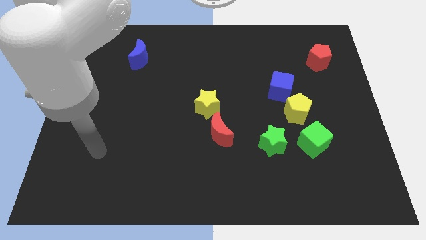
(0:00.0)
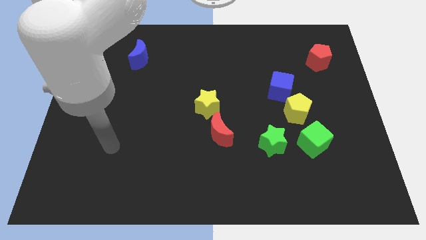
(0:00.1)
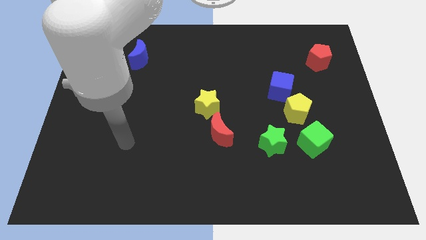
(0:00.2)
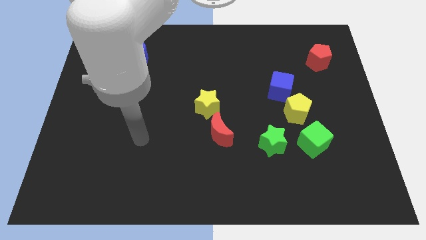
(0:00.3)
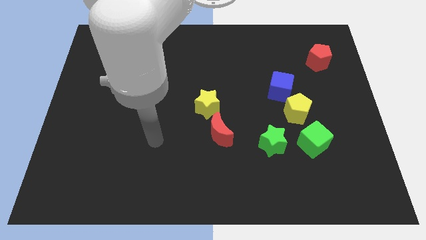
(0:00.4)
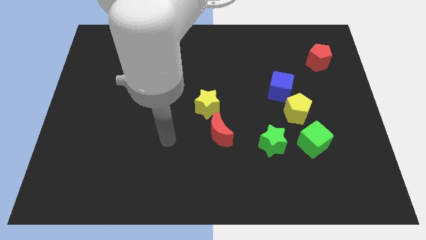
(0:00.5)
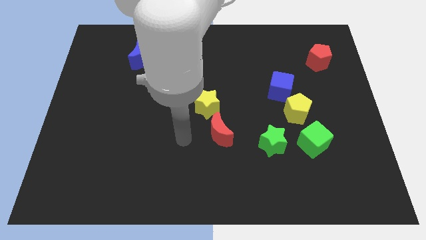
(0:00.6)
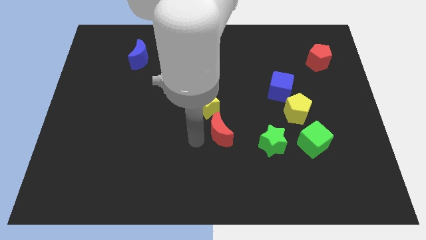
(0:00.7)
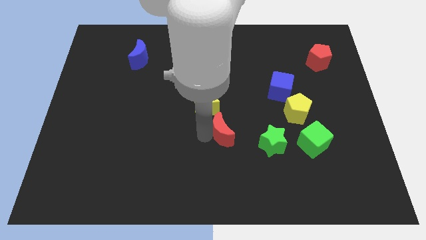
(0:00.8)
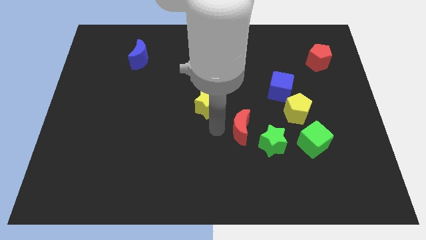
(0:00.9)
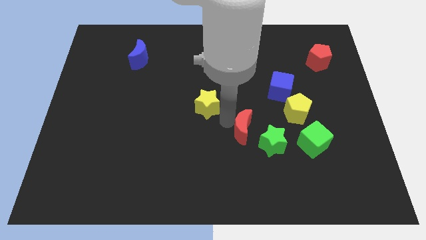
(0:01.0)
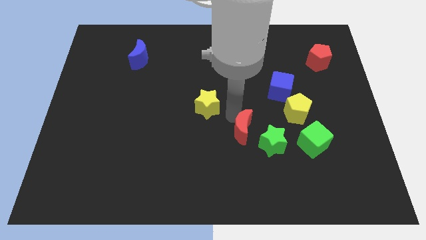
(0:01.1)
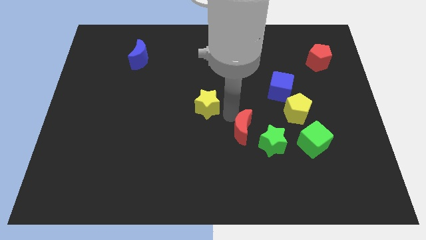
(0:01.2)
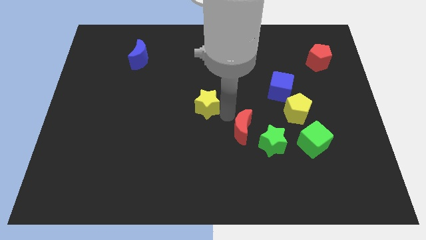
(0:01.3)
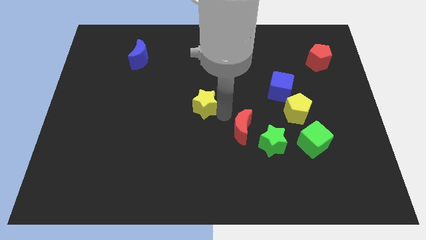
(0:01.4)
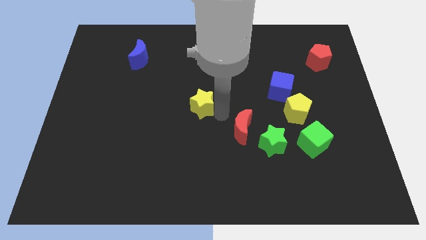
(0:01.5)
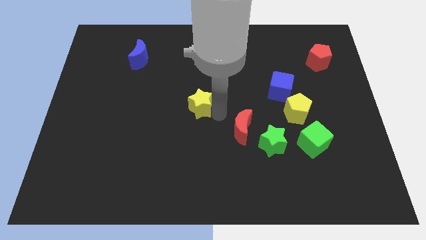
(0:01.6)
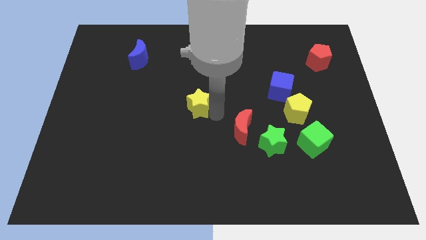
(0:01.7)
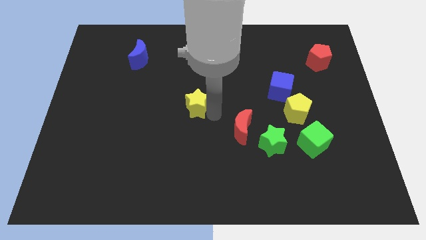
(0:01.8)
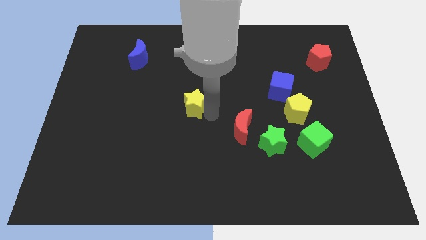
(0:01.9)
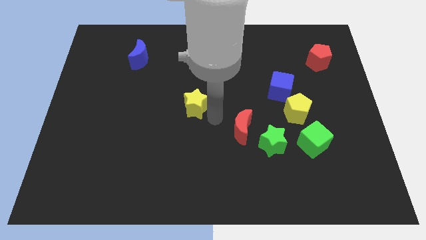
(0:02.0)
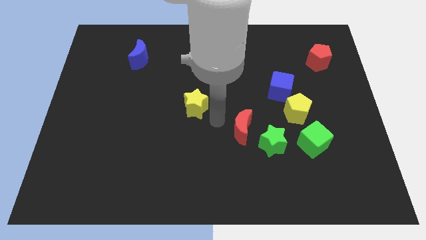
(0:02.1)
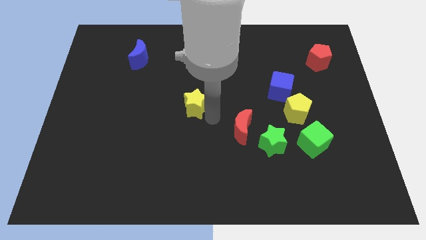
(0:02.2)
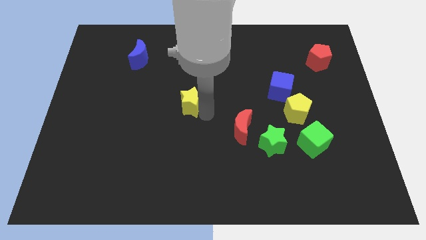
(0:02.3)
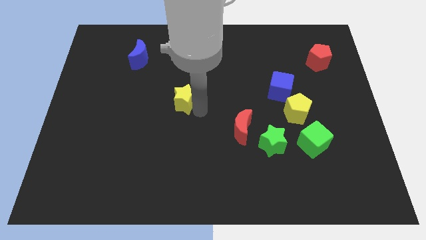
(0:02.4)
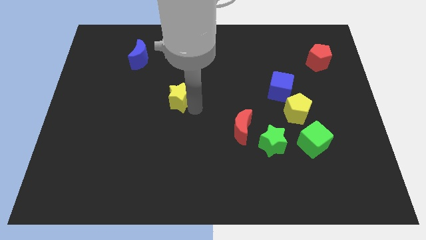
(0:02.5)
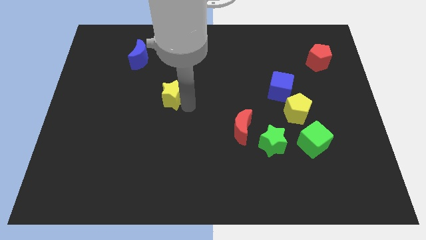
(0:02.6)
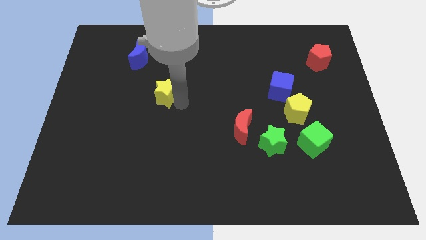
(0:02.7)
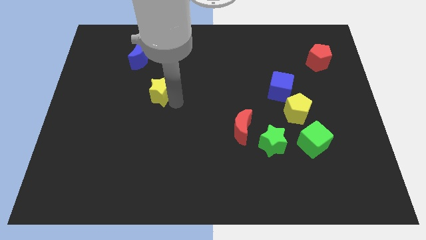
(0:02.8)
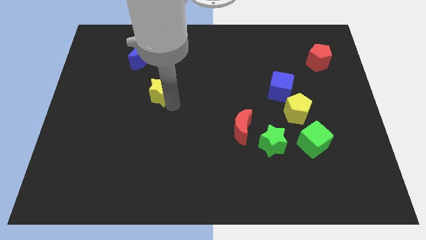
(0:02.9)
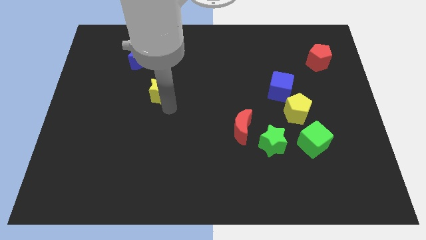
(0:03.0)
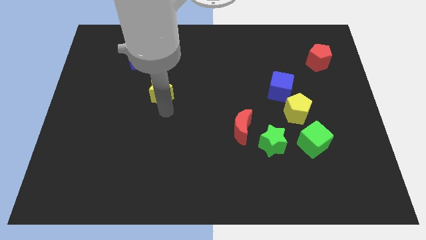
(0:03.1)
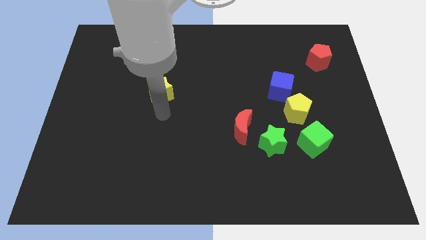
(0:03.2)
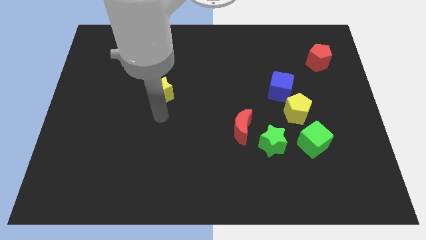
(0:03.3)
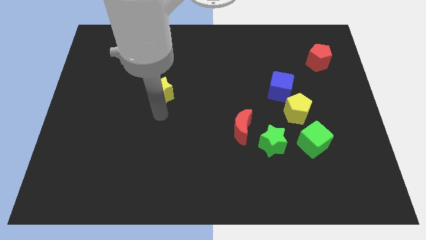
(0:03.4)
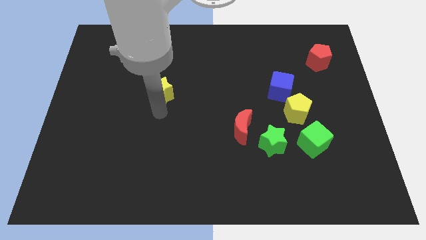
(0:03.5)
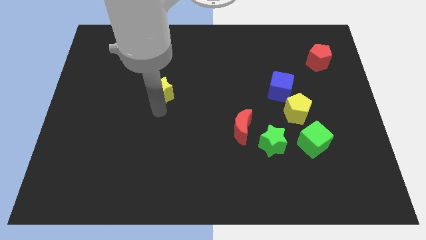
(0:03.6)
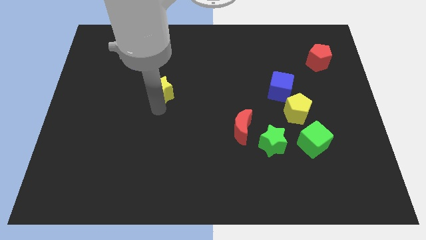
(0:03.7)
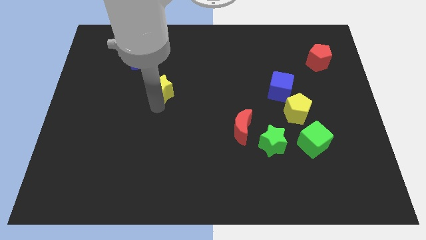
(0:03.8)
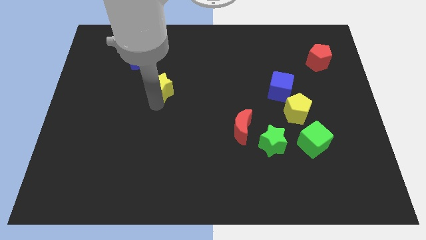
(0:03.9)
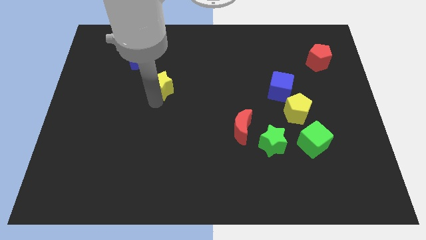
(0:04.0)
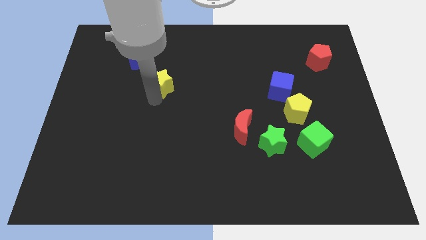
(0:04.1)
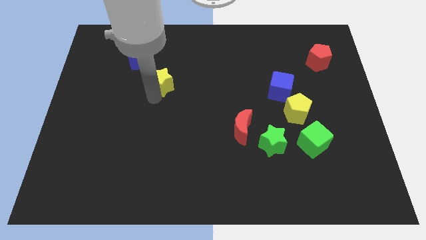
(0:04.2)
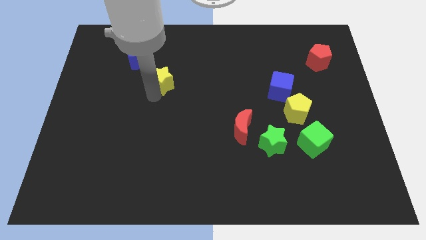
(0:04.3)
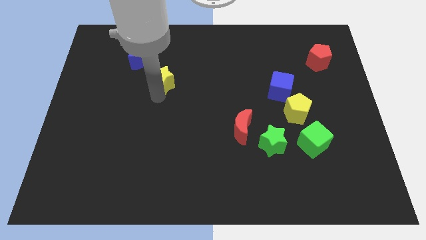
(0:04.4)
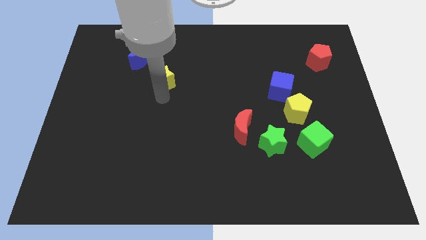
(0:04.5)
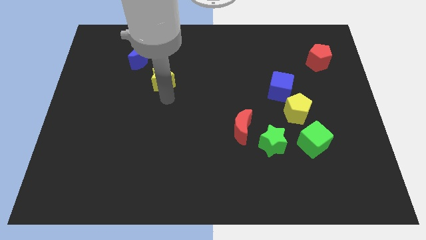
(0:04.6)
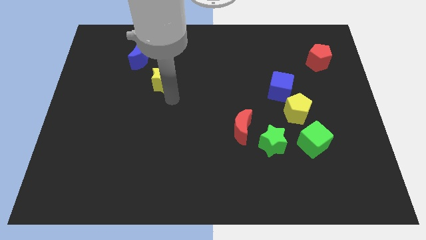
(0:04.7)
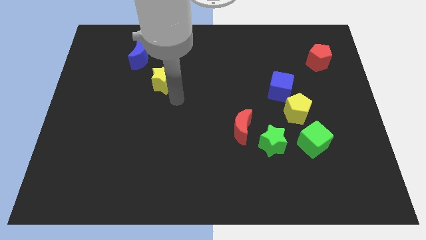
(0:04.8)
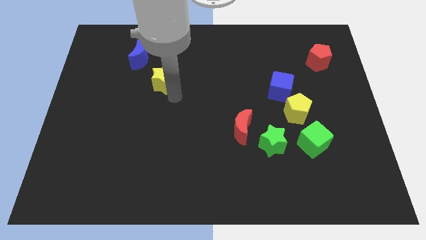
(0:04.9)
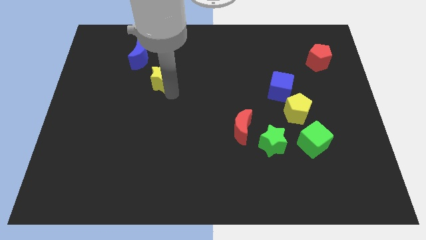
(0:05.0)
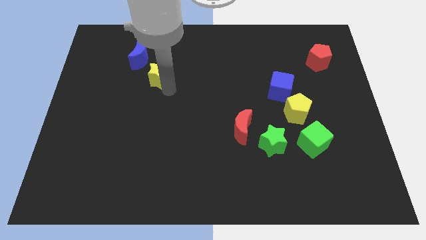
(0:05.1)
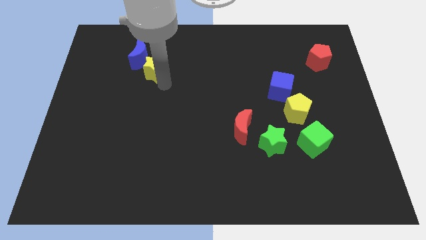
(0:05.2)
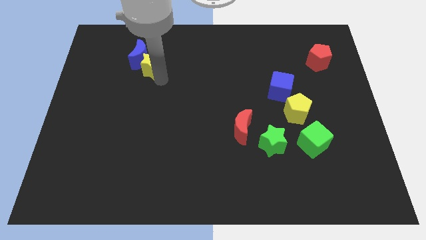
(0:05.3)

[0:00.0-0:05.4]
push the yellow star next to the blue moon

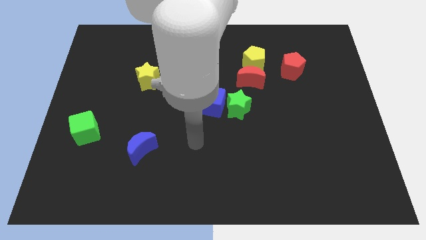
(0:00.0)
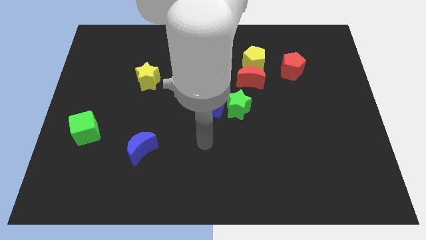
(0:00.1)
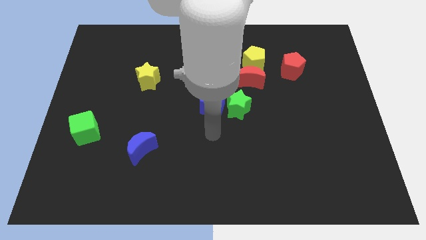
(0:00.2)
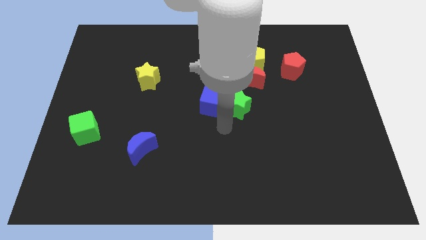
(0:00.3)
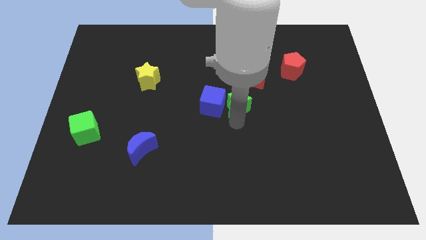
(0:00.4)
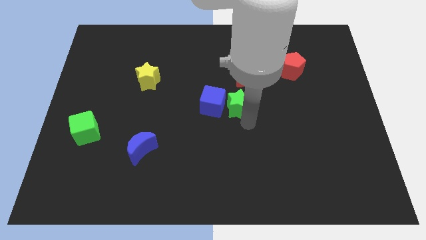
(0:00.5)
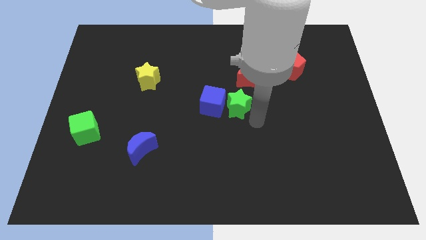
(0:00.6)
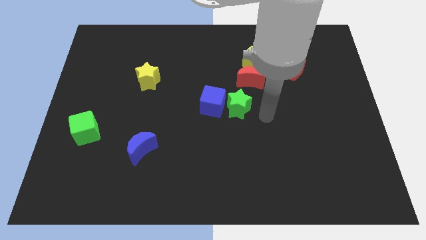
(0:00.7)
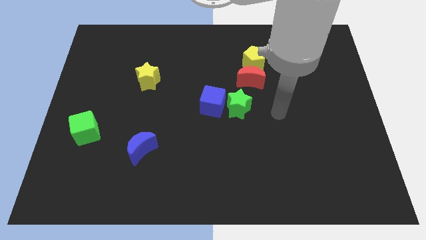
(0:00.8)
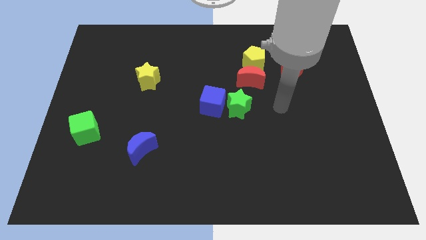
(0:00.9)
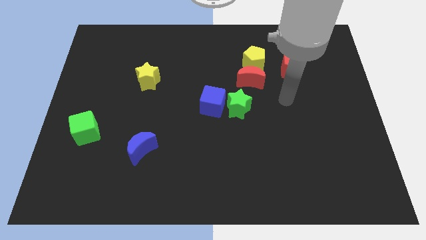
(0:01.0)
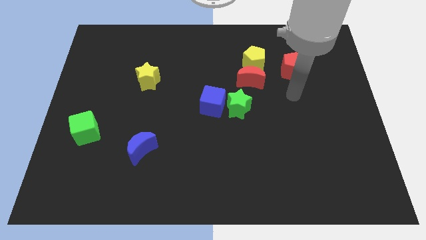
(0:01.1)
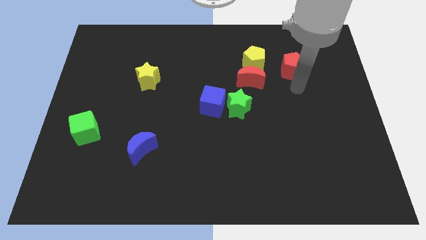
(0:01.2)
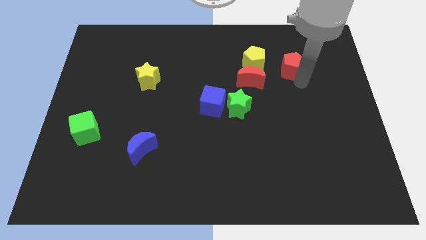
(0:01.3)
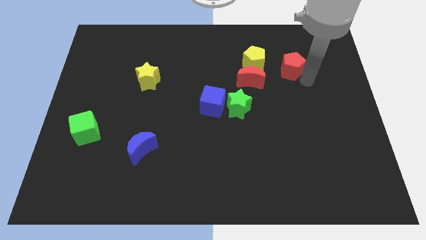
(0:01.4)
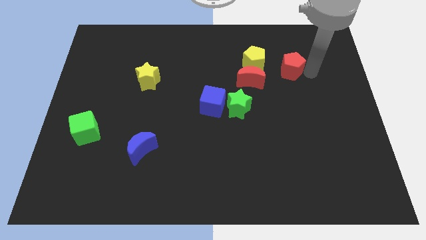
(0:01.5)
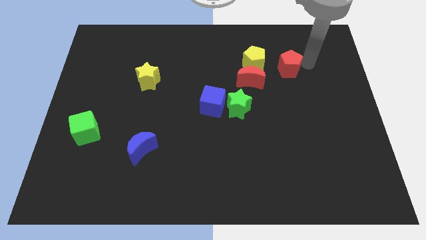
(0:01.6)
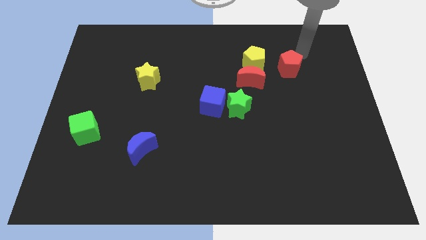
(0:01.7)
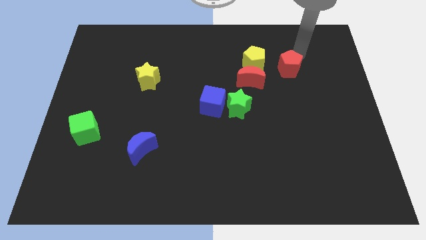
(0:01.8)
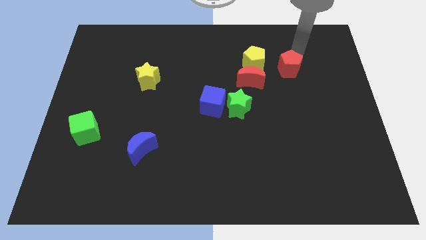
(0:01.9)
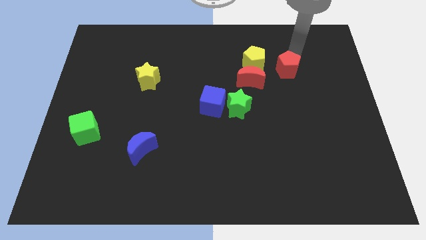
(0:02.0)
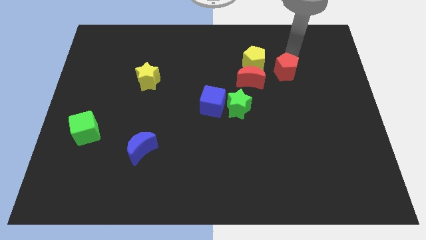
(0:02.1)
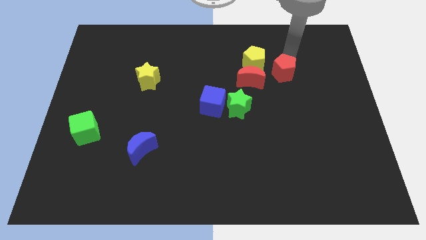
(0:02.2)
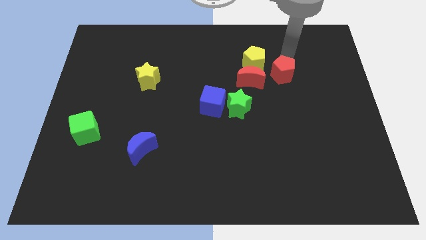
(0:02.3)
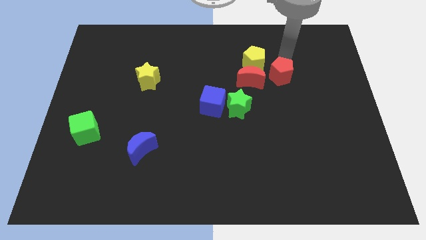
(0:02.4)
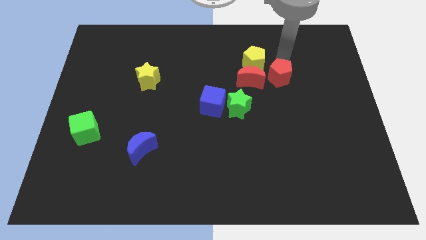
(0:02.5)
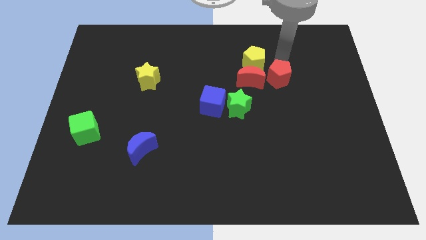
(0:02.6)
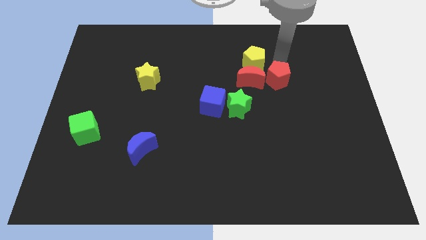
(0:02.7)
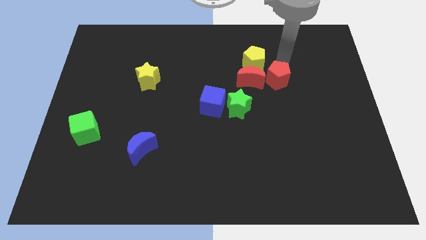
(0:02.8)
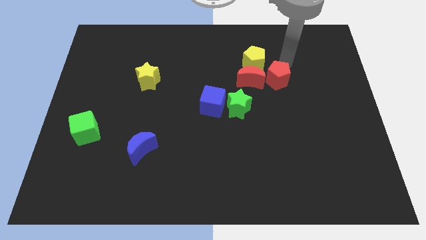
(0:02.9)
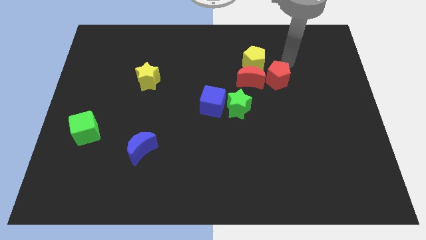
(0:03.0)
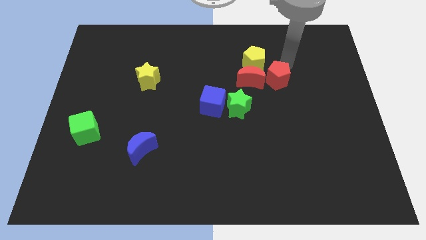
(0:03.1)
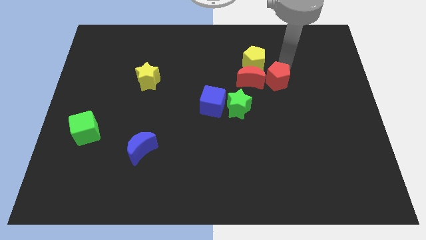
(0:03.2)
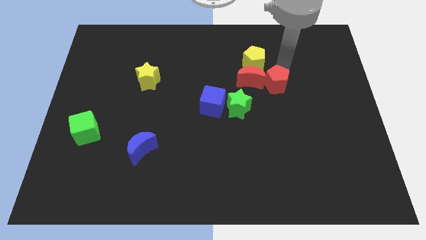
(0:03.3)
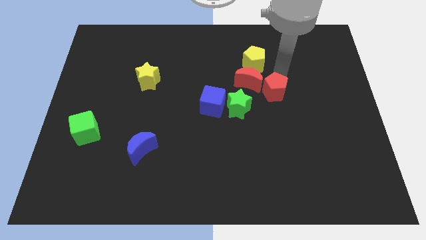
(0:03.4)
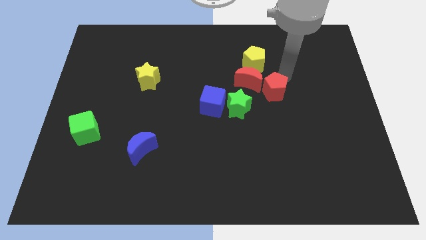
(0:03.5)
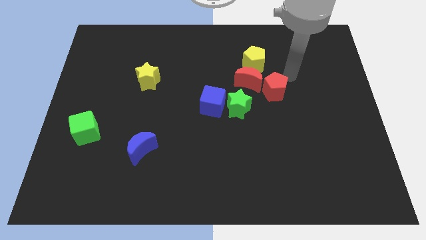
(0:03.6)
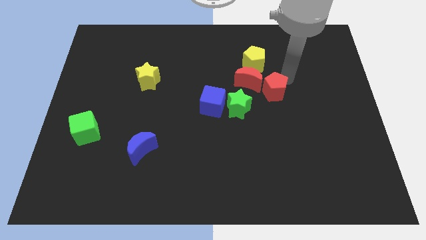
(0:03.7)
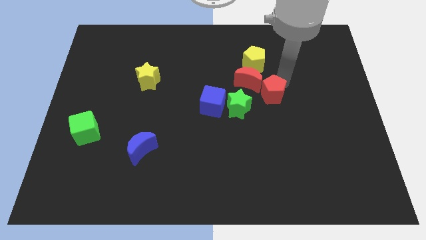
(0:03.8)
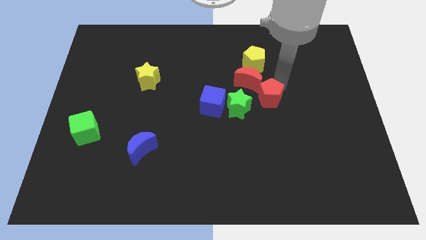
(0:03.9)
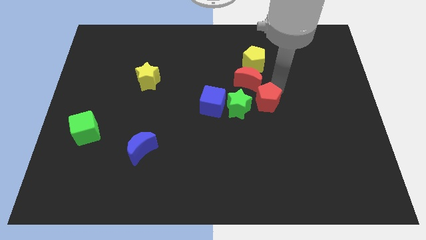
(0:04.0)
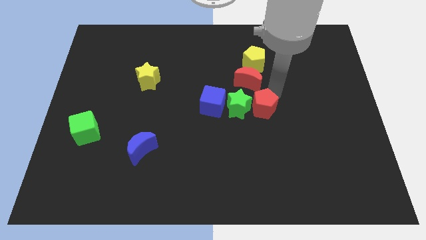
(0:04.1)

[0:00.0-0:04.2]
push the red pentagon towards the green star
